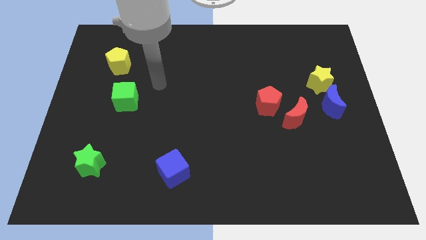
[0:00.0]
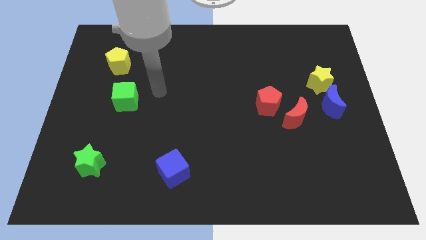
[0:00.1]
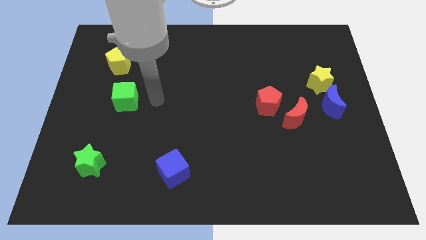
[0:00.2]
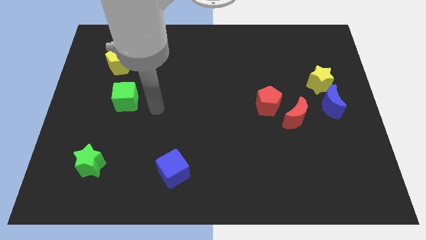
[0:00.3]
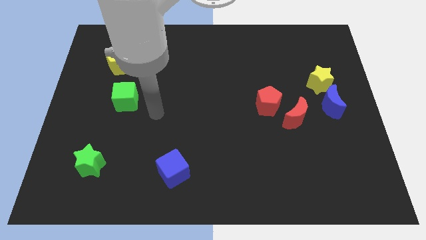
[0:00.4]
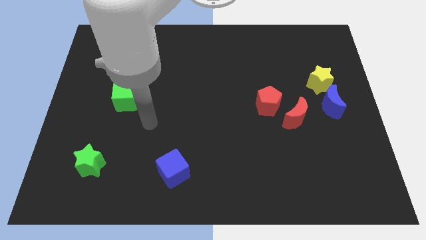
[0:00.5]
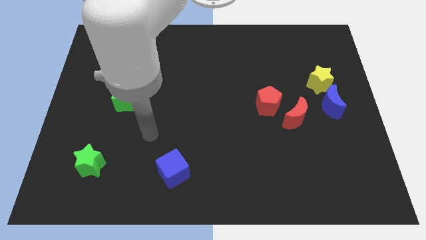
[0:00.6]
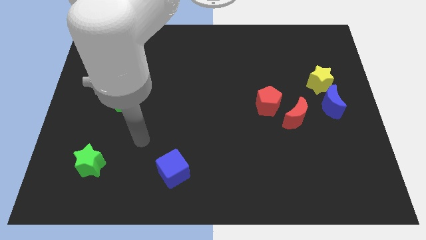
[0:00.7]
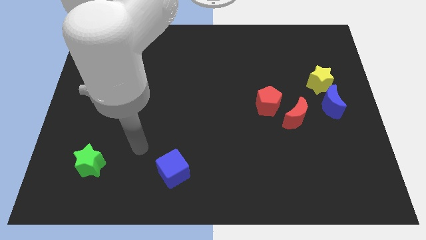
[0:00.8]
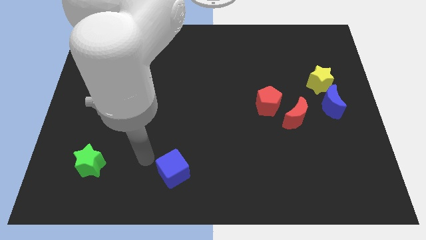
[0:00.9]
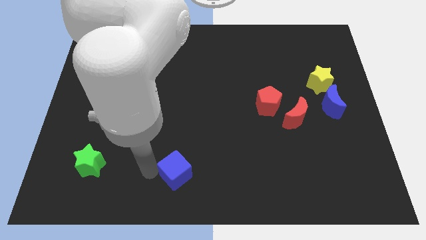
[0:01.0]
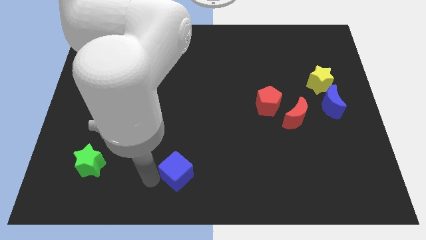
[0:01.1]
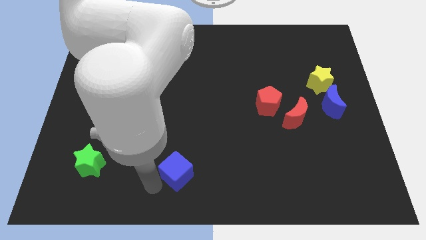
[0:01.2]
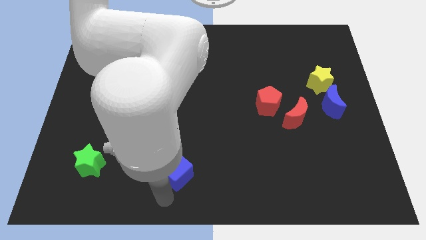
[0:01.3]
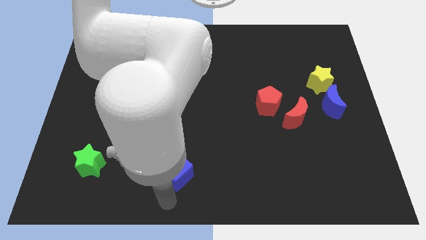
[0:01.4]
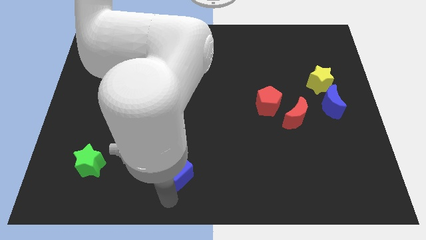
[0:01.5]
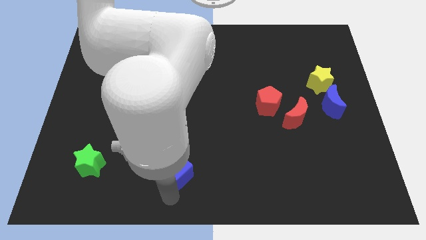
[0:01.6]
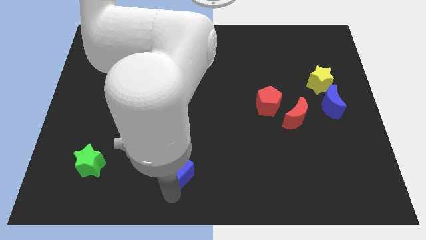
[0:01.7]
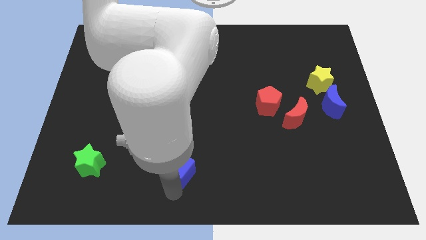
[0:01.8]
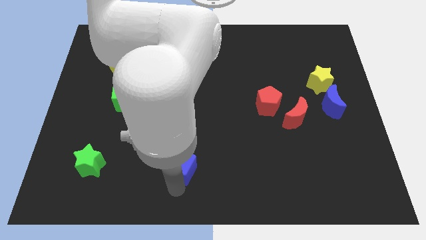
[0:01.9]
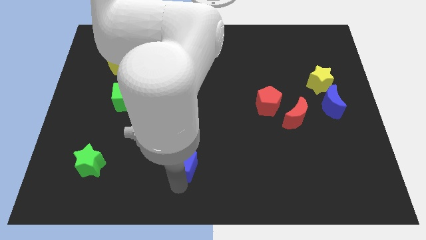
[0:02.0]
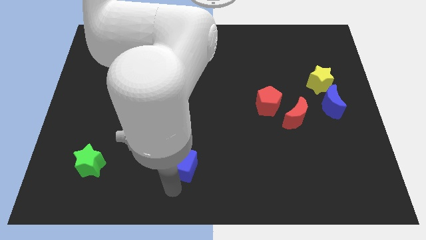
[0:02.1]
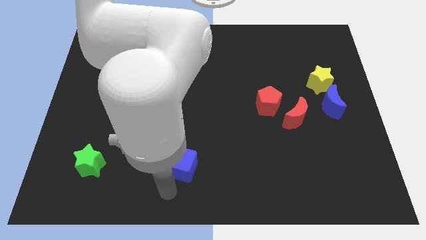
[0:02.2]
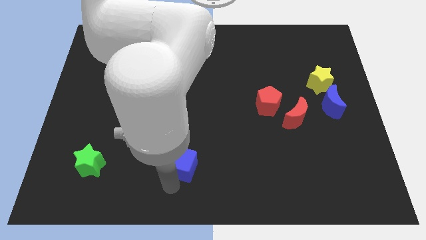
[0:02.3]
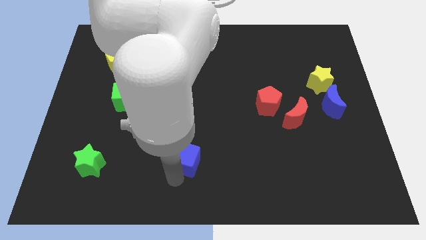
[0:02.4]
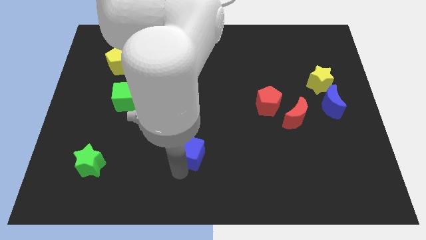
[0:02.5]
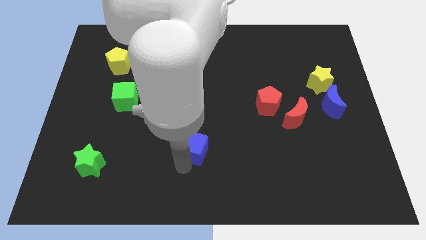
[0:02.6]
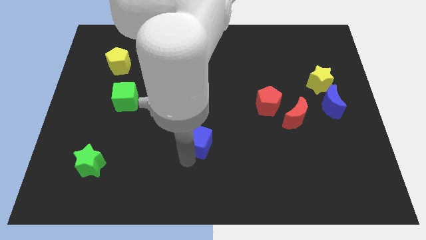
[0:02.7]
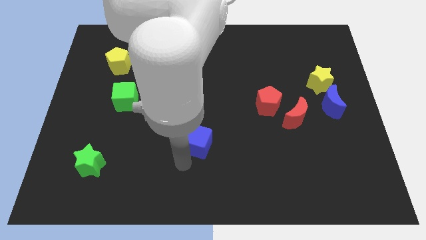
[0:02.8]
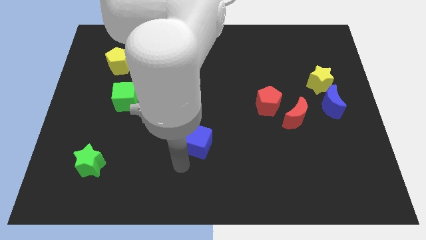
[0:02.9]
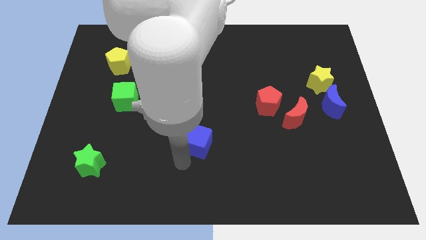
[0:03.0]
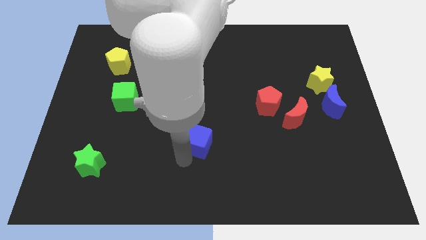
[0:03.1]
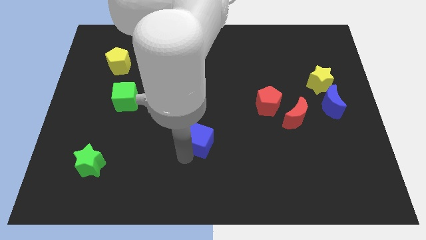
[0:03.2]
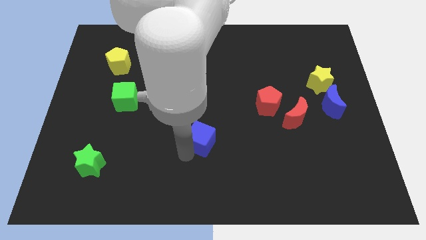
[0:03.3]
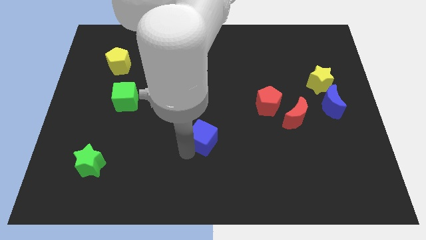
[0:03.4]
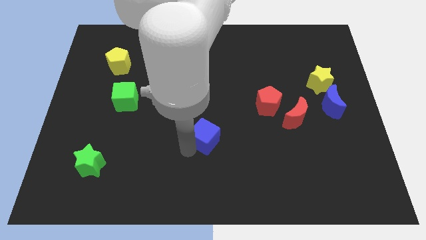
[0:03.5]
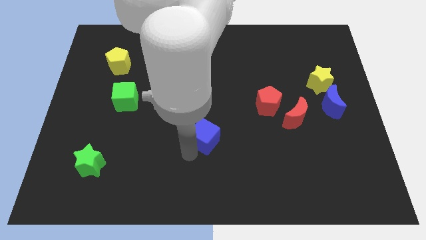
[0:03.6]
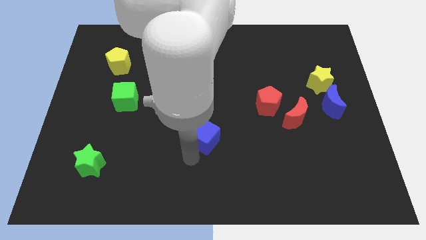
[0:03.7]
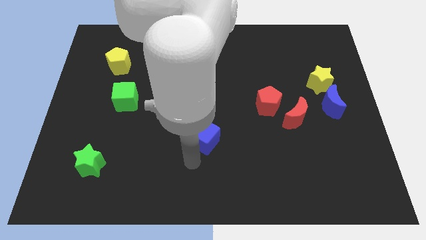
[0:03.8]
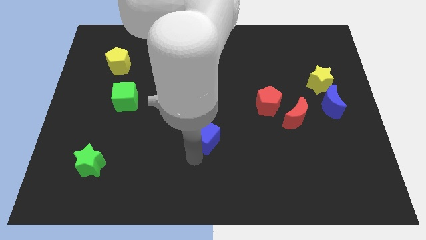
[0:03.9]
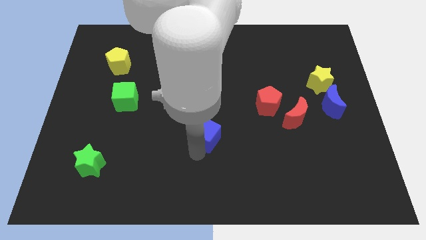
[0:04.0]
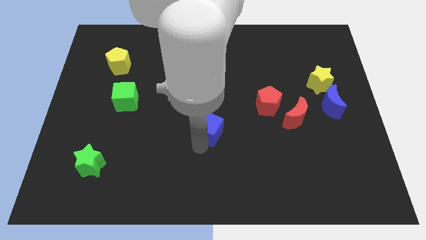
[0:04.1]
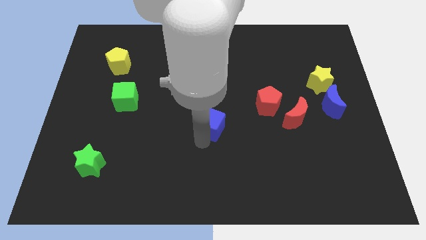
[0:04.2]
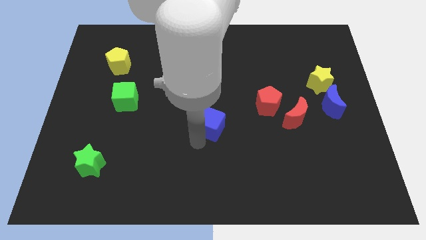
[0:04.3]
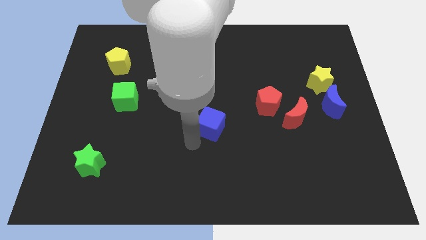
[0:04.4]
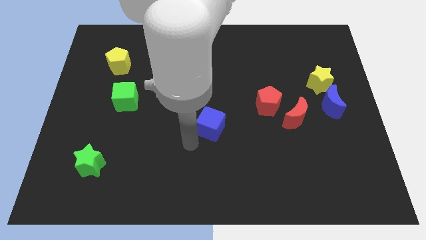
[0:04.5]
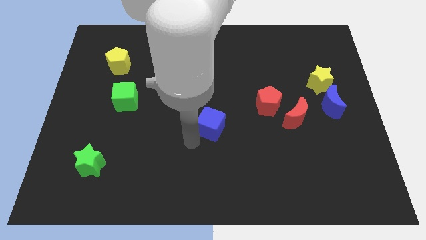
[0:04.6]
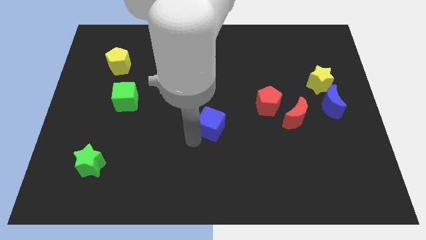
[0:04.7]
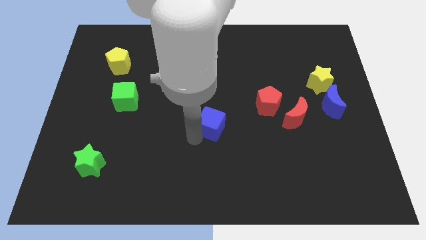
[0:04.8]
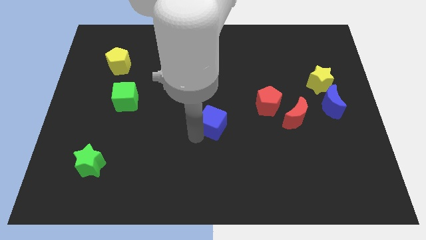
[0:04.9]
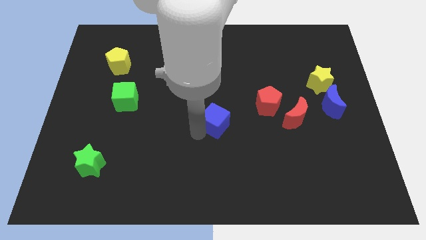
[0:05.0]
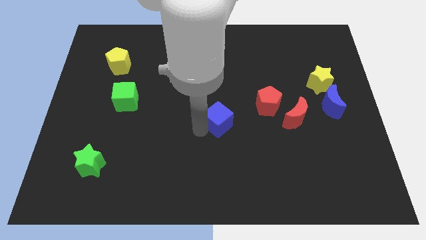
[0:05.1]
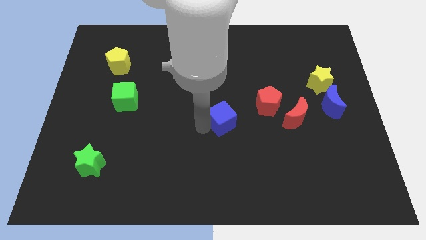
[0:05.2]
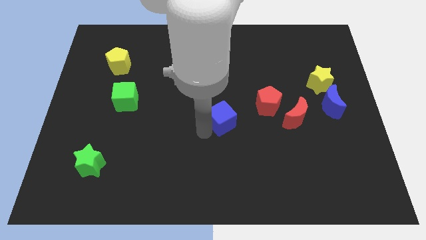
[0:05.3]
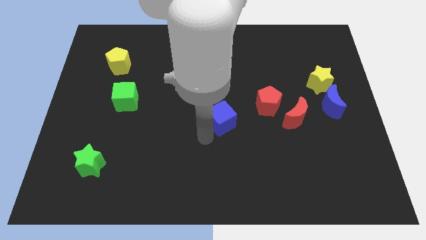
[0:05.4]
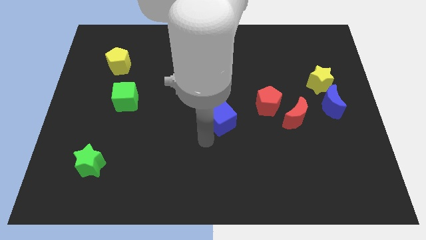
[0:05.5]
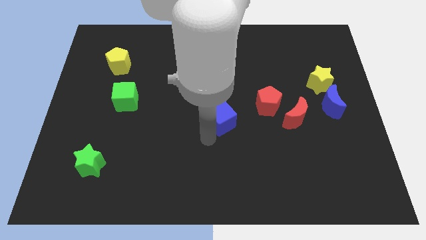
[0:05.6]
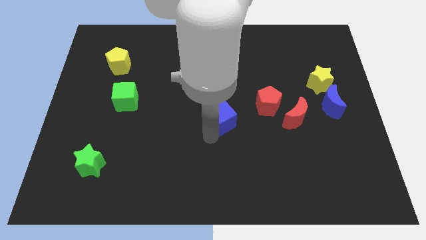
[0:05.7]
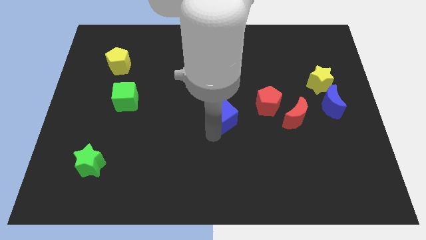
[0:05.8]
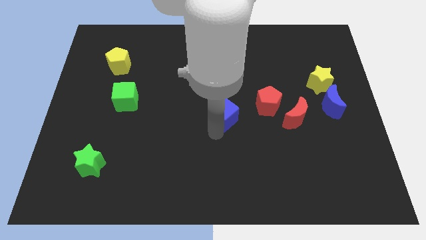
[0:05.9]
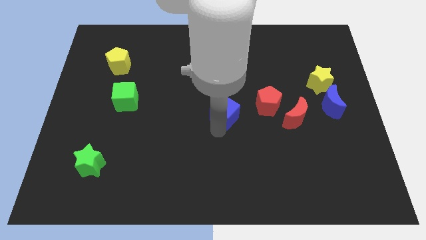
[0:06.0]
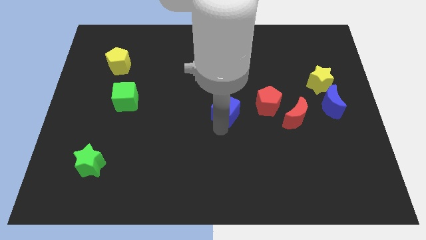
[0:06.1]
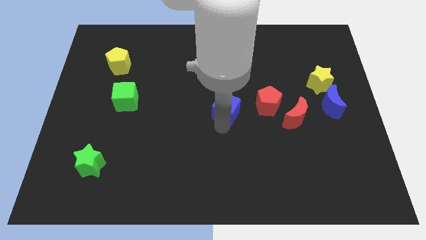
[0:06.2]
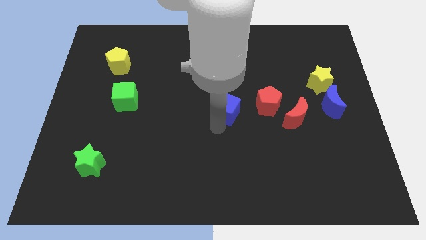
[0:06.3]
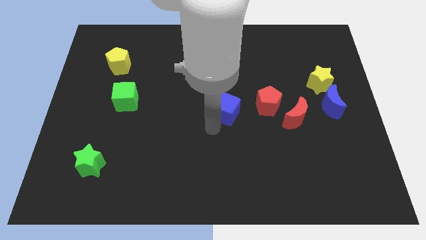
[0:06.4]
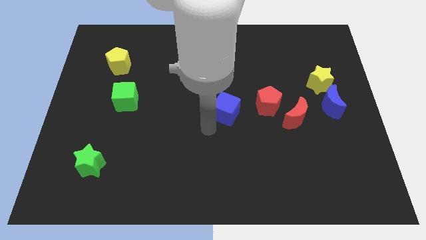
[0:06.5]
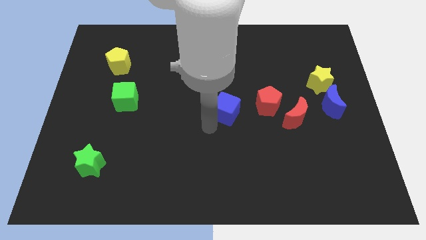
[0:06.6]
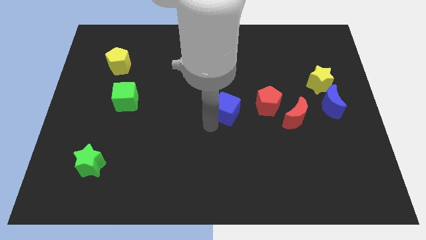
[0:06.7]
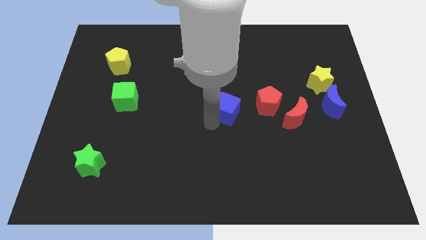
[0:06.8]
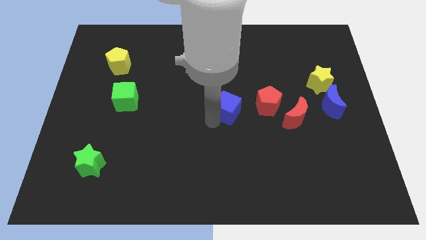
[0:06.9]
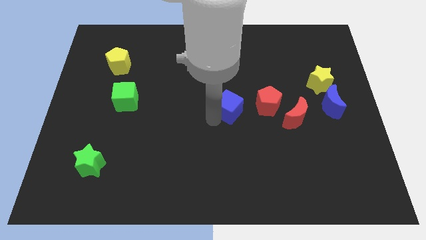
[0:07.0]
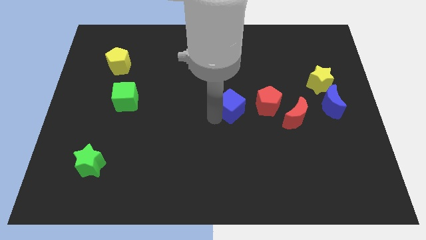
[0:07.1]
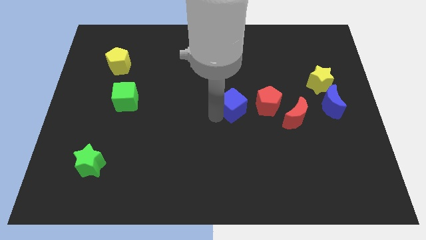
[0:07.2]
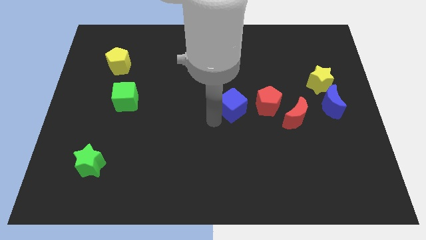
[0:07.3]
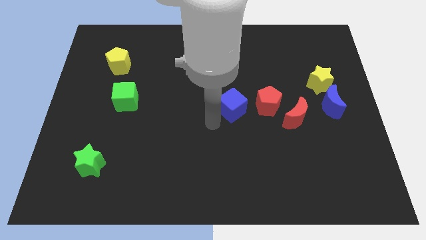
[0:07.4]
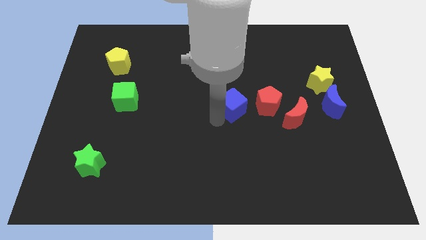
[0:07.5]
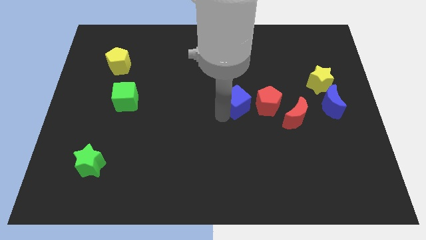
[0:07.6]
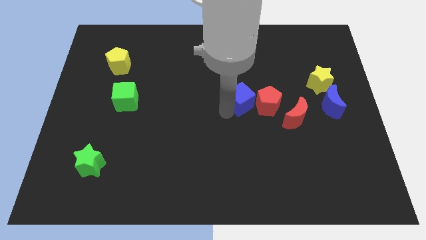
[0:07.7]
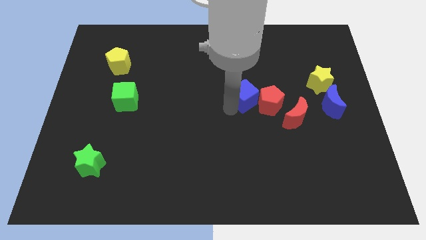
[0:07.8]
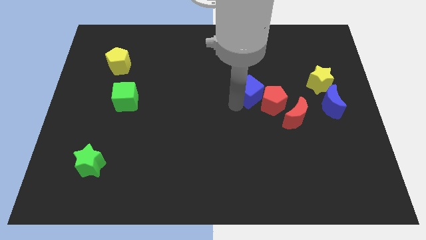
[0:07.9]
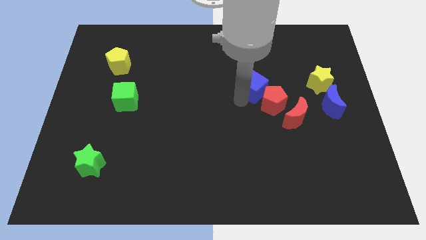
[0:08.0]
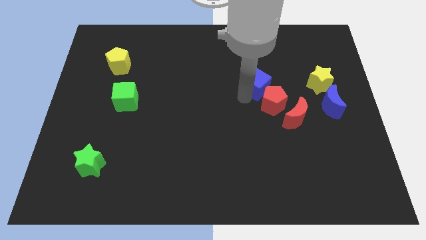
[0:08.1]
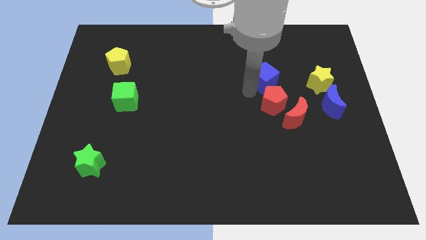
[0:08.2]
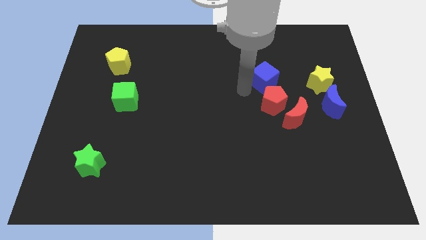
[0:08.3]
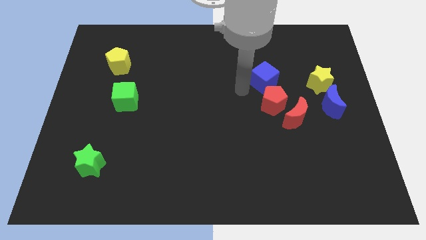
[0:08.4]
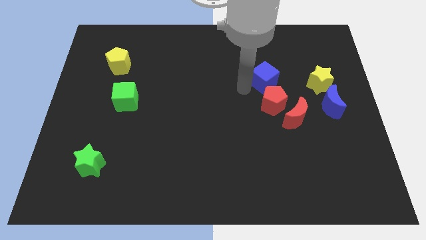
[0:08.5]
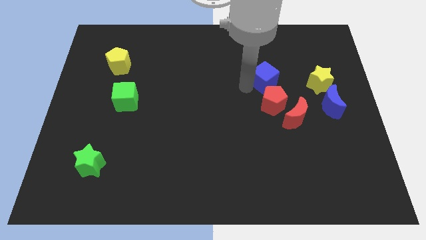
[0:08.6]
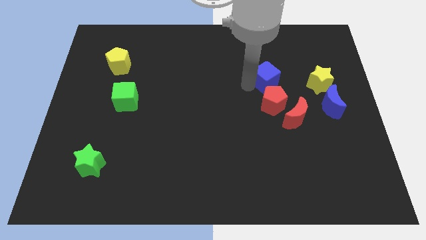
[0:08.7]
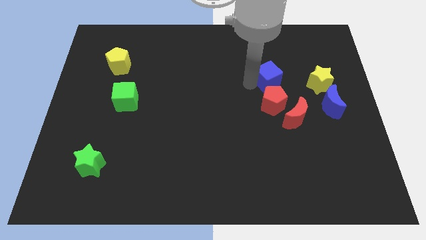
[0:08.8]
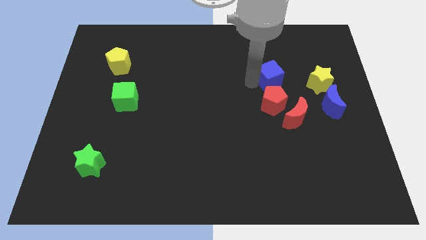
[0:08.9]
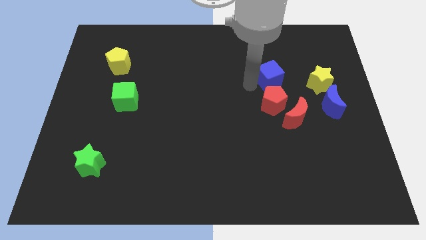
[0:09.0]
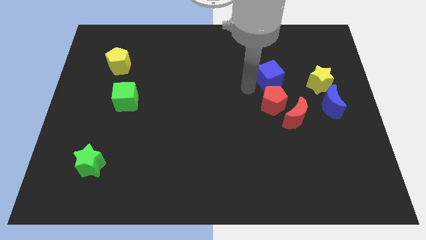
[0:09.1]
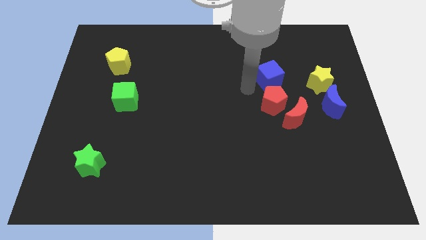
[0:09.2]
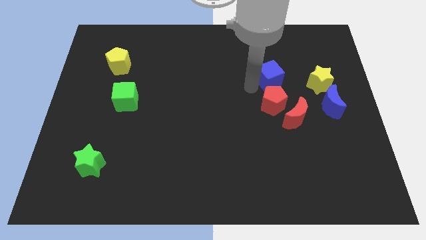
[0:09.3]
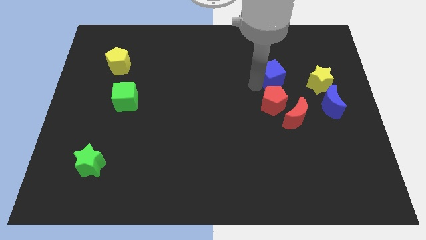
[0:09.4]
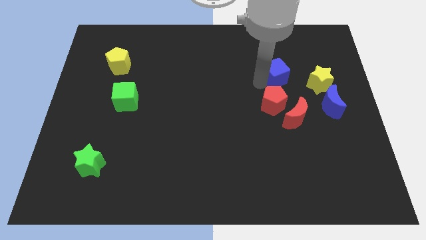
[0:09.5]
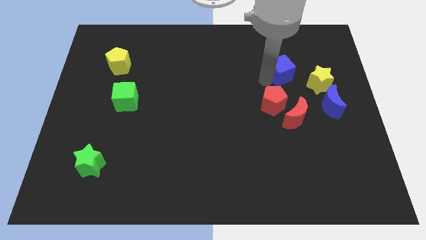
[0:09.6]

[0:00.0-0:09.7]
move the blue cube to the top left side of the yellow star
